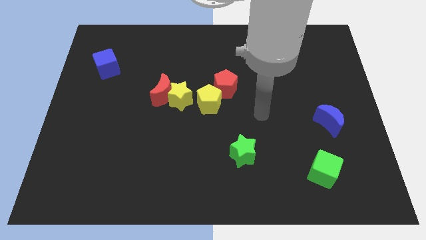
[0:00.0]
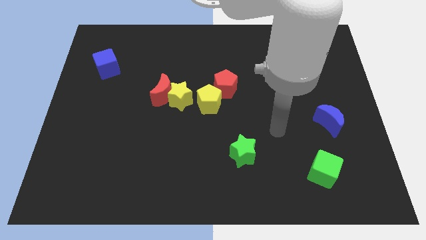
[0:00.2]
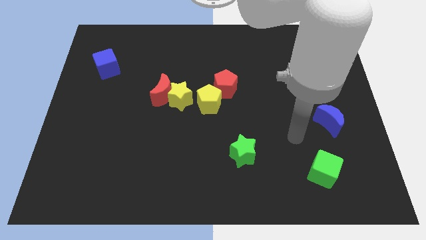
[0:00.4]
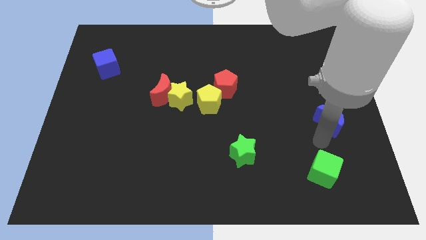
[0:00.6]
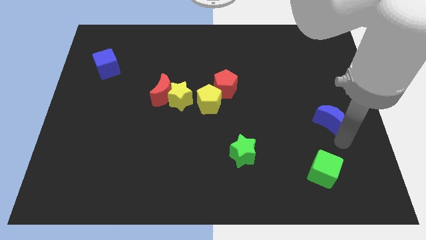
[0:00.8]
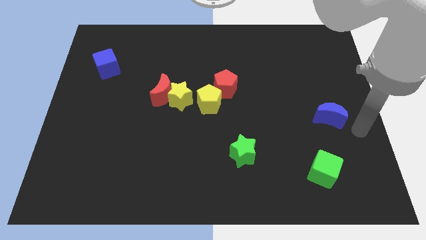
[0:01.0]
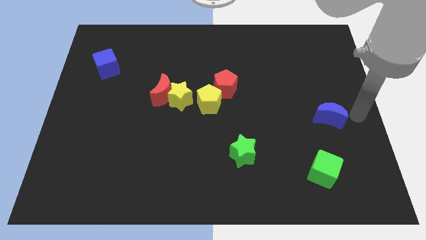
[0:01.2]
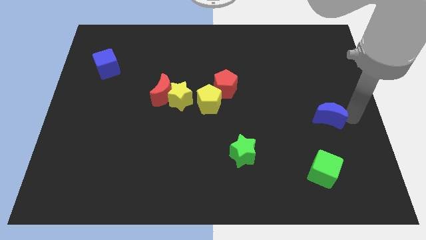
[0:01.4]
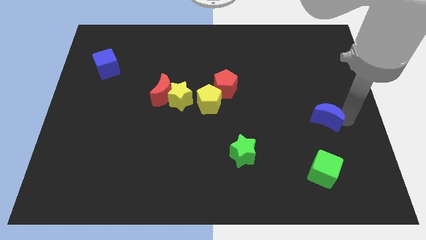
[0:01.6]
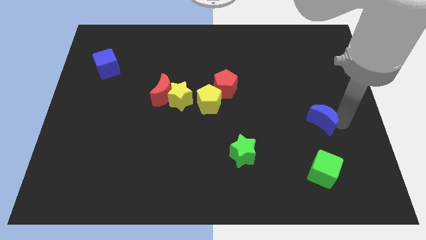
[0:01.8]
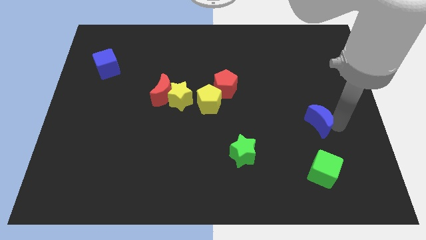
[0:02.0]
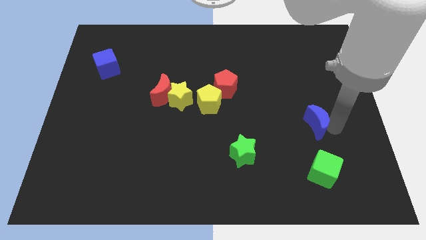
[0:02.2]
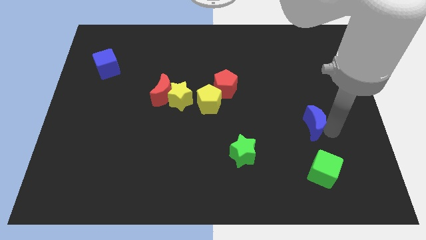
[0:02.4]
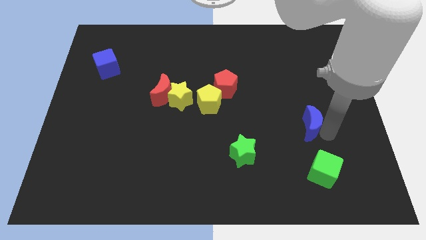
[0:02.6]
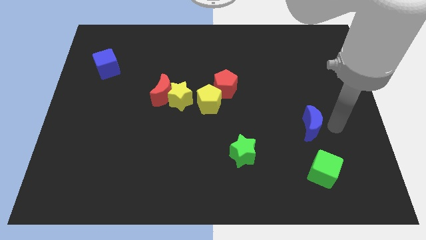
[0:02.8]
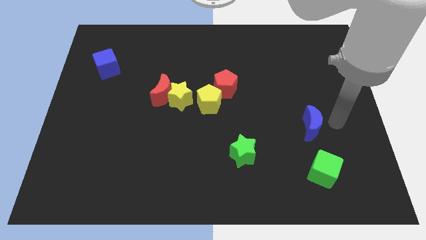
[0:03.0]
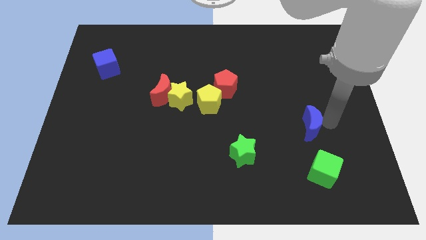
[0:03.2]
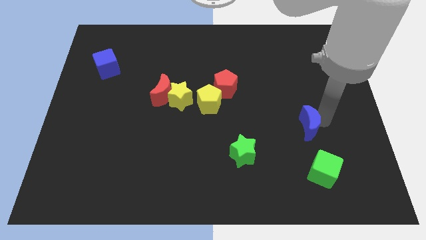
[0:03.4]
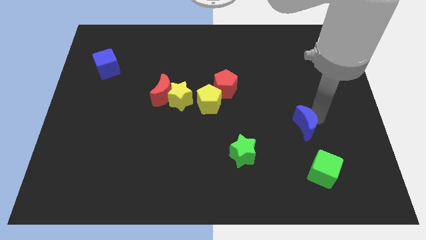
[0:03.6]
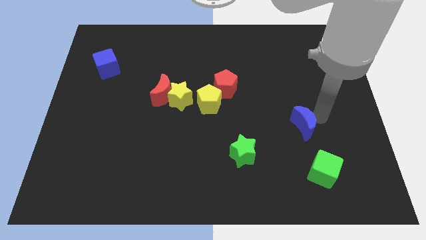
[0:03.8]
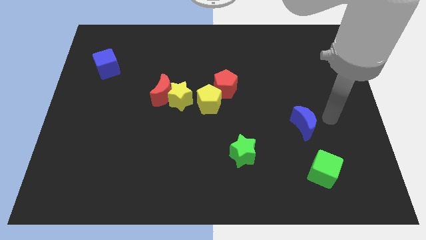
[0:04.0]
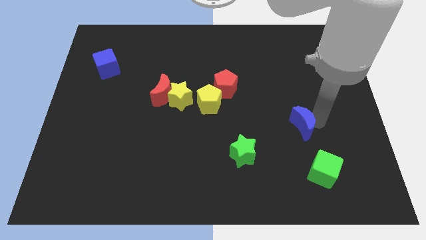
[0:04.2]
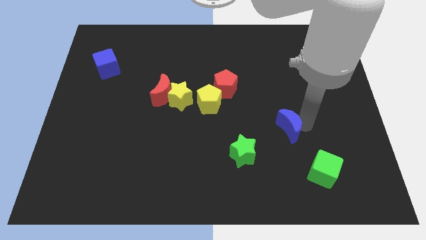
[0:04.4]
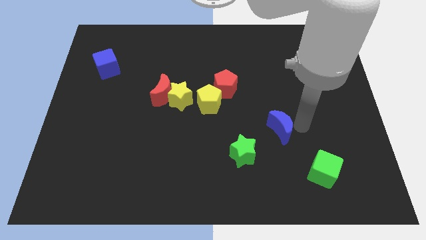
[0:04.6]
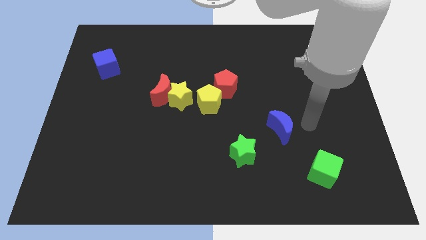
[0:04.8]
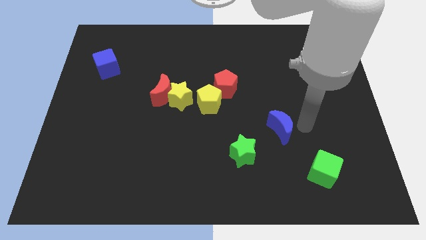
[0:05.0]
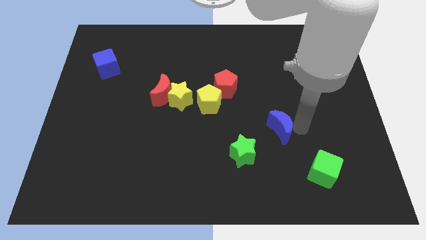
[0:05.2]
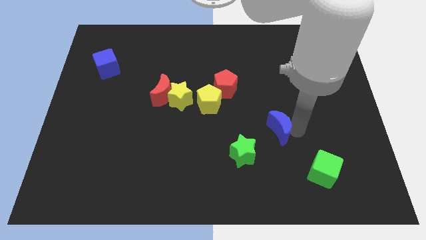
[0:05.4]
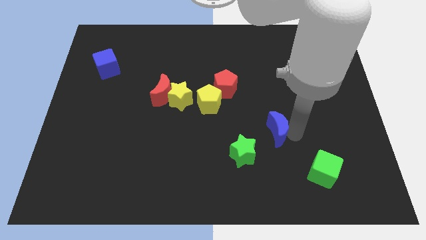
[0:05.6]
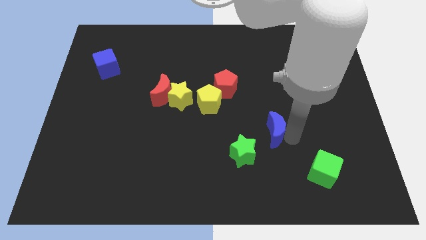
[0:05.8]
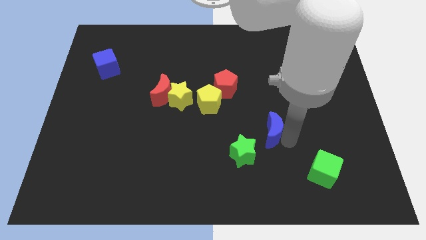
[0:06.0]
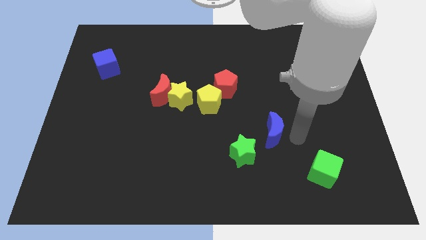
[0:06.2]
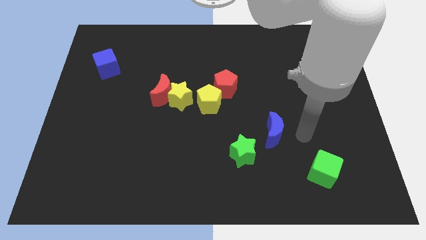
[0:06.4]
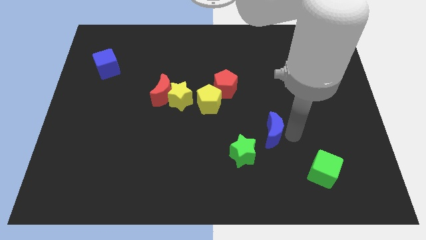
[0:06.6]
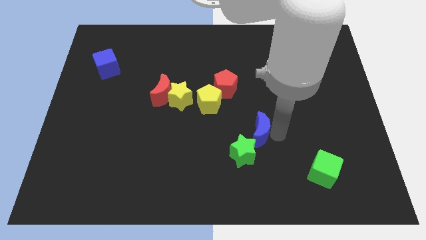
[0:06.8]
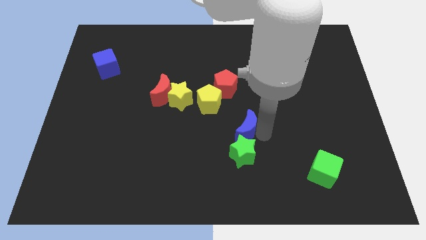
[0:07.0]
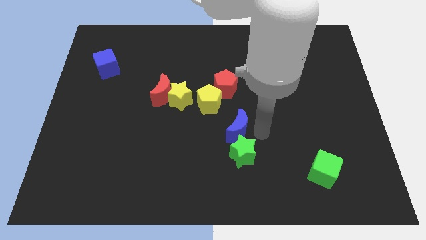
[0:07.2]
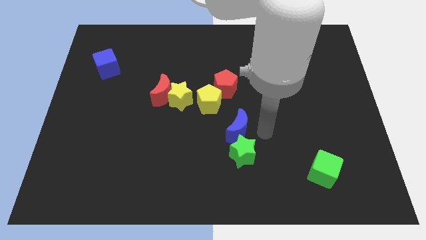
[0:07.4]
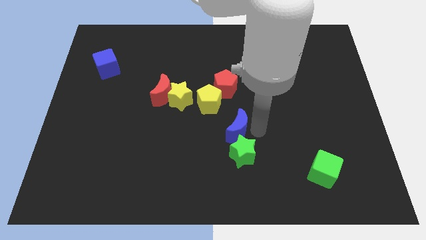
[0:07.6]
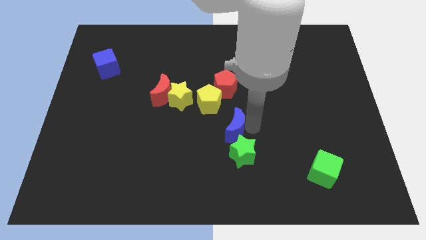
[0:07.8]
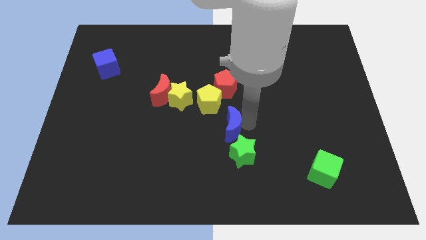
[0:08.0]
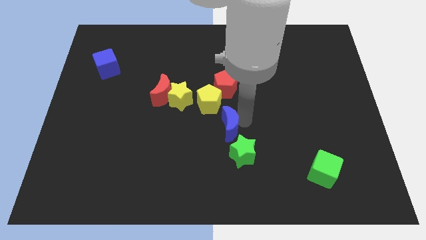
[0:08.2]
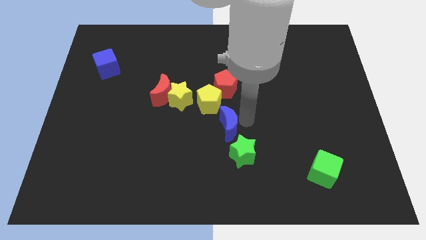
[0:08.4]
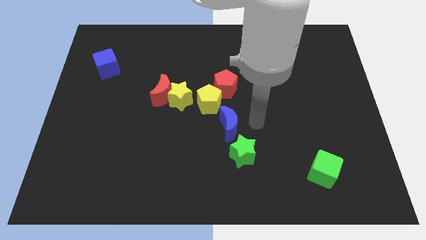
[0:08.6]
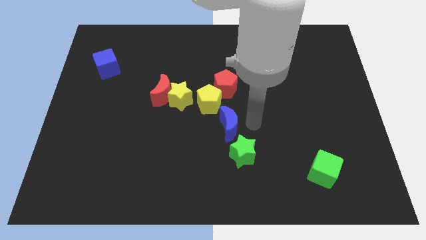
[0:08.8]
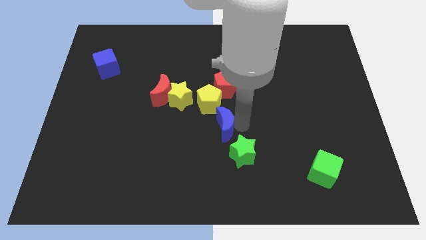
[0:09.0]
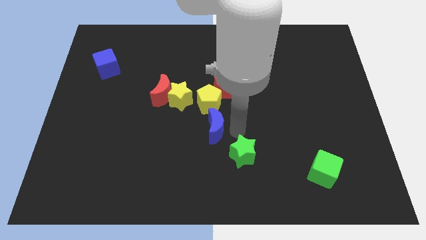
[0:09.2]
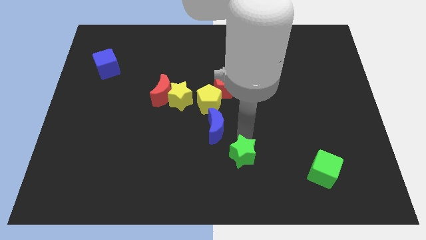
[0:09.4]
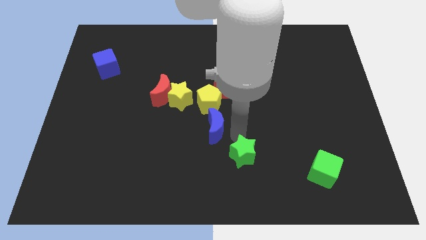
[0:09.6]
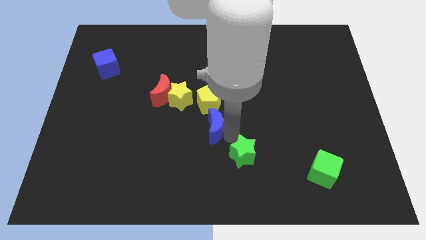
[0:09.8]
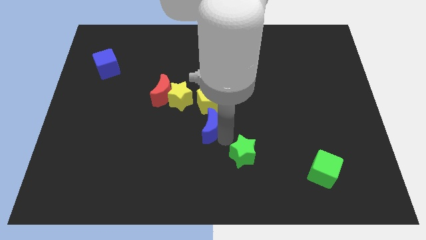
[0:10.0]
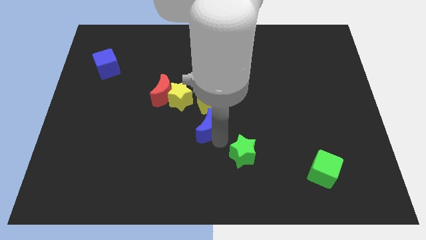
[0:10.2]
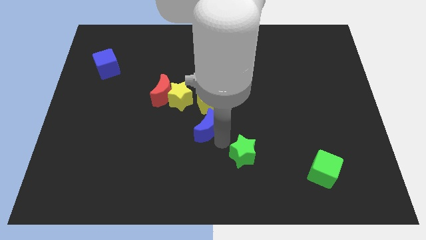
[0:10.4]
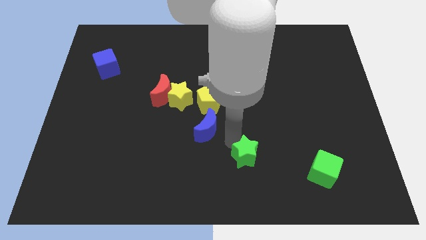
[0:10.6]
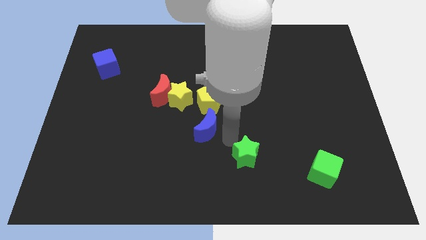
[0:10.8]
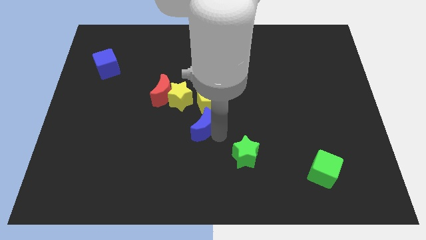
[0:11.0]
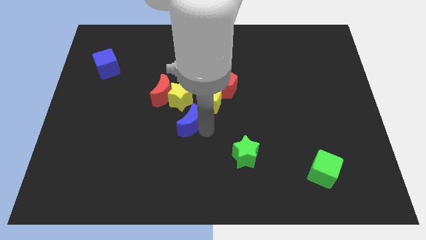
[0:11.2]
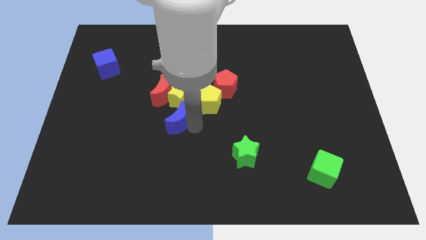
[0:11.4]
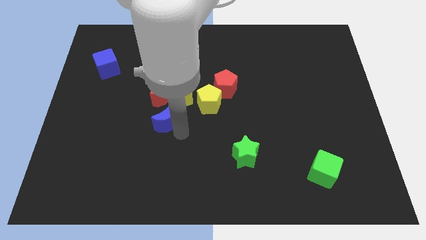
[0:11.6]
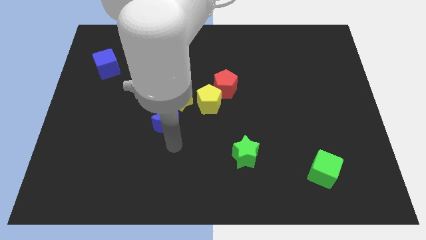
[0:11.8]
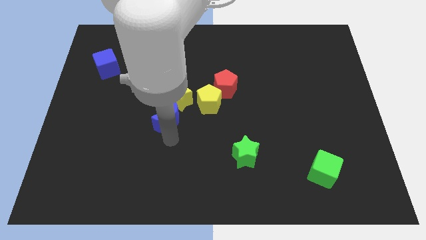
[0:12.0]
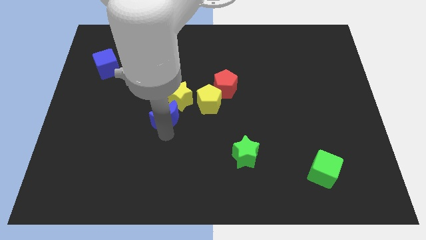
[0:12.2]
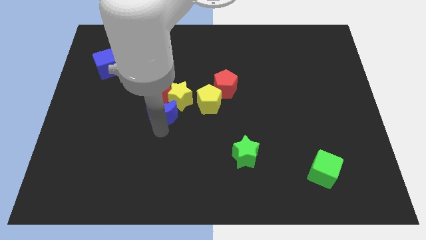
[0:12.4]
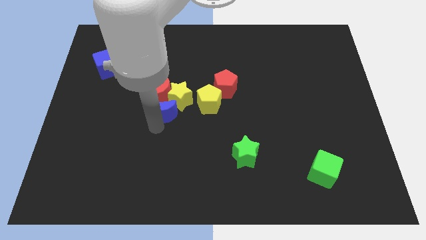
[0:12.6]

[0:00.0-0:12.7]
slide the blue moon next to the red moon

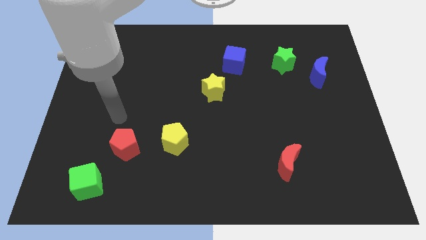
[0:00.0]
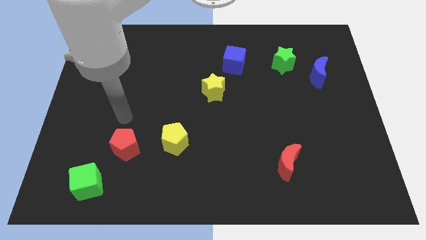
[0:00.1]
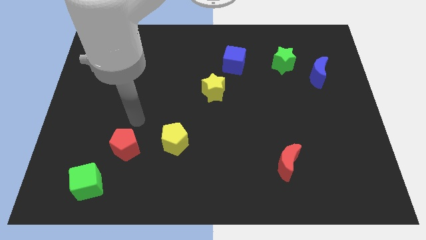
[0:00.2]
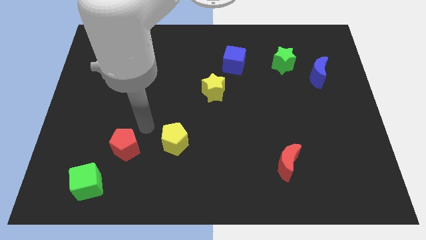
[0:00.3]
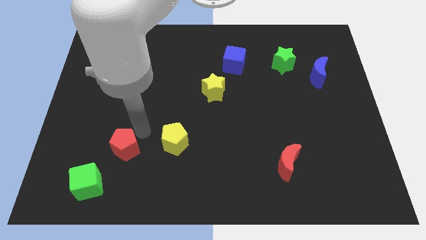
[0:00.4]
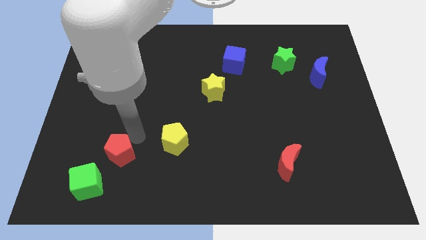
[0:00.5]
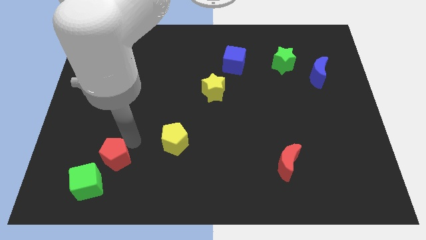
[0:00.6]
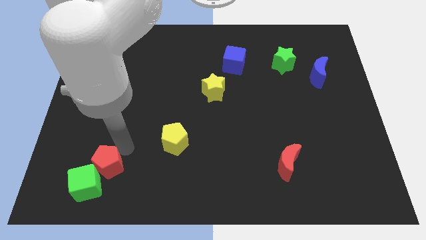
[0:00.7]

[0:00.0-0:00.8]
put the red pentagon to the green cube
